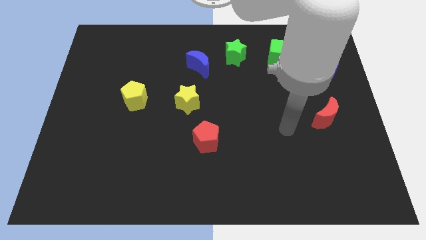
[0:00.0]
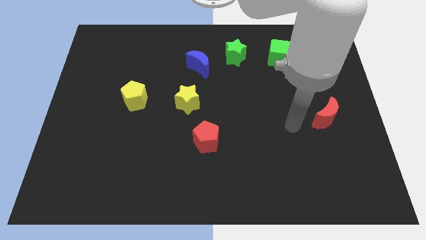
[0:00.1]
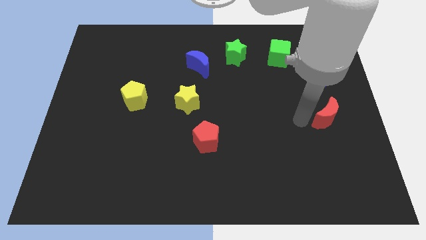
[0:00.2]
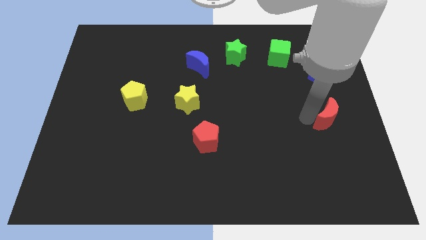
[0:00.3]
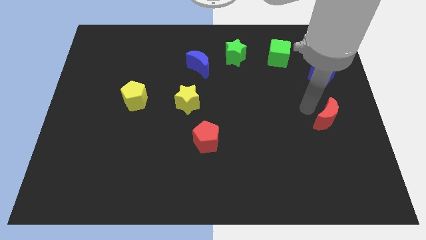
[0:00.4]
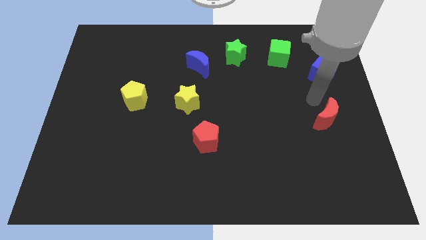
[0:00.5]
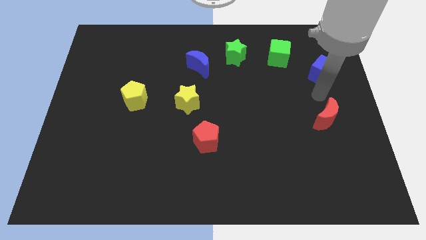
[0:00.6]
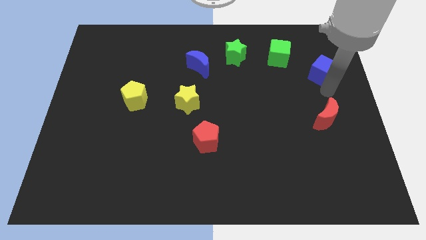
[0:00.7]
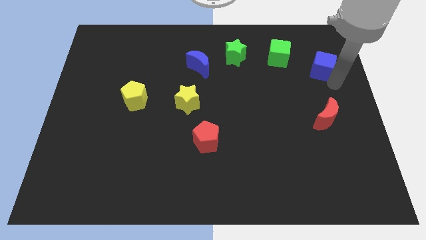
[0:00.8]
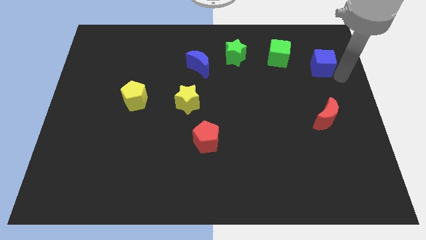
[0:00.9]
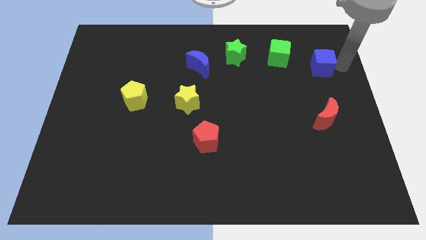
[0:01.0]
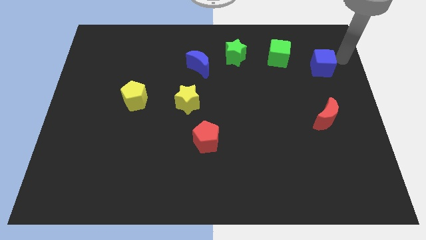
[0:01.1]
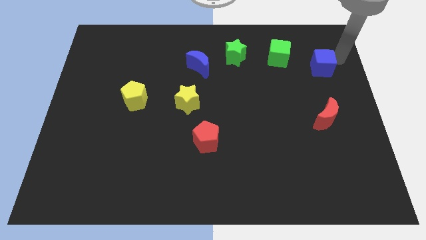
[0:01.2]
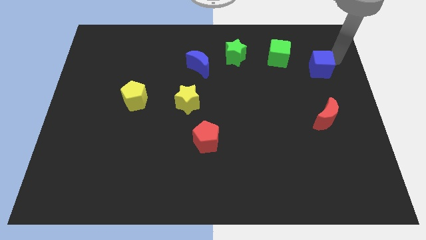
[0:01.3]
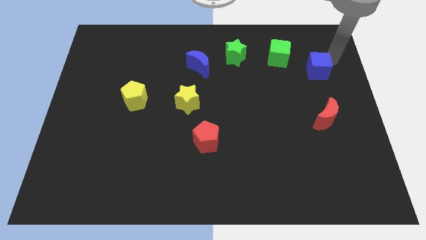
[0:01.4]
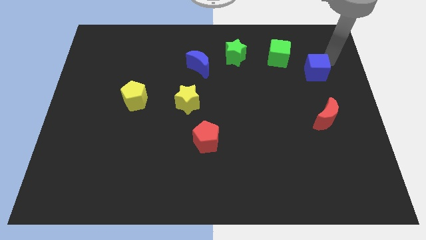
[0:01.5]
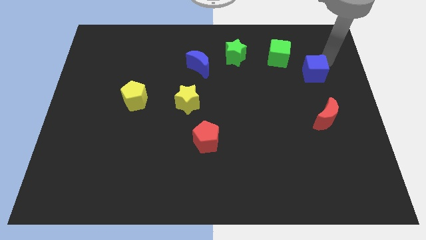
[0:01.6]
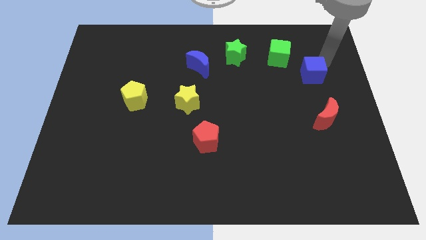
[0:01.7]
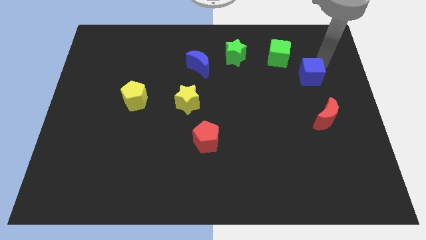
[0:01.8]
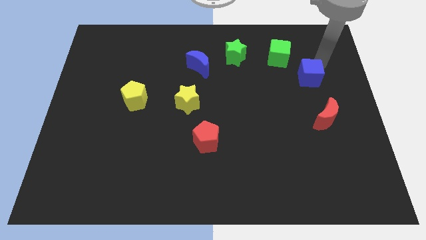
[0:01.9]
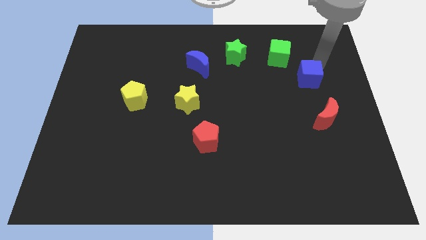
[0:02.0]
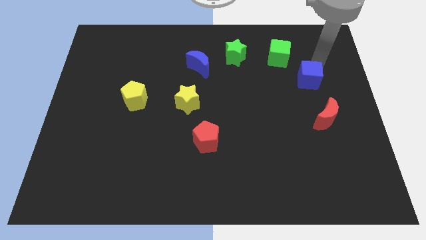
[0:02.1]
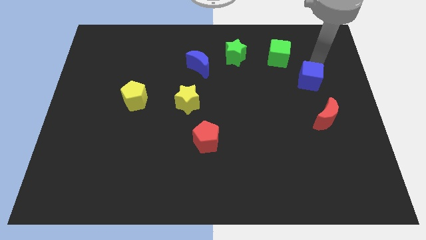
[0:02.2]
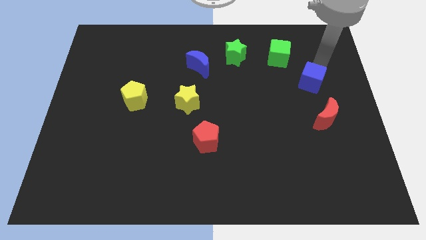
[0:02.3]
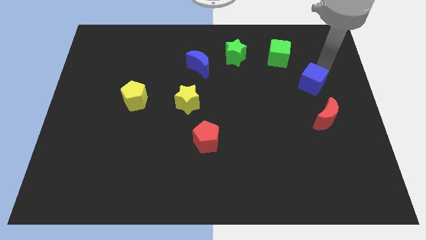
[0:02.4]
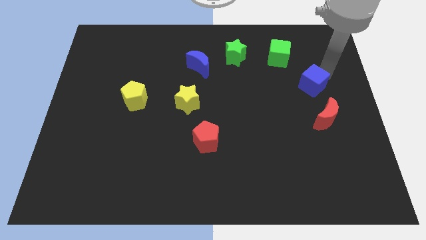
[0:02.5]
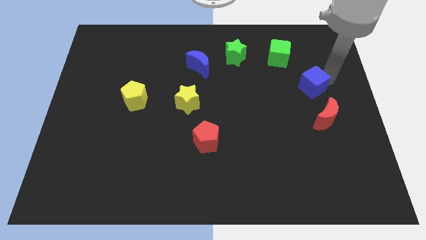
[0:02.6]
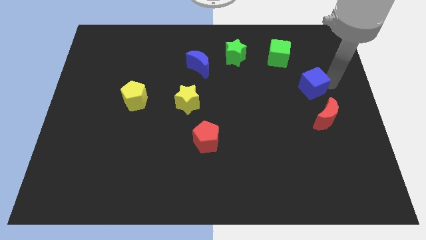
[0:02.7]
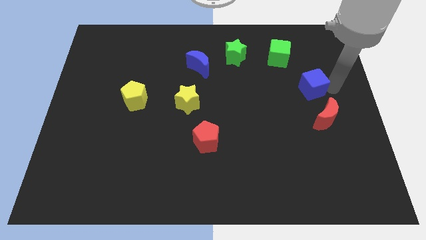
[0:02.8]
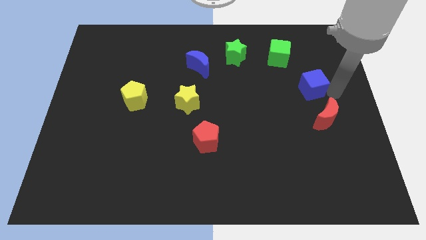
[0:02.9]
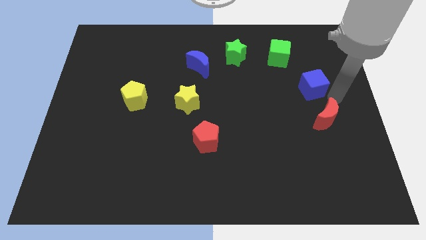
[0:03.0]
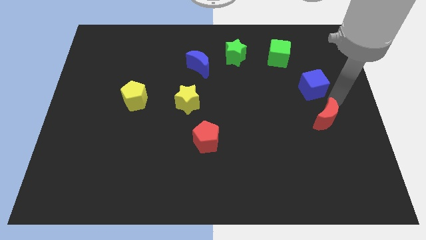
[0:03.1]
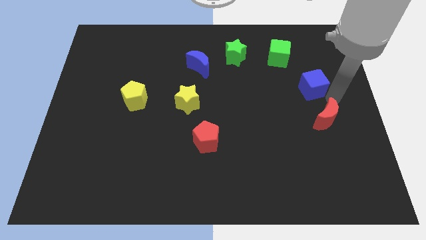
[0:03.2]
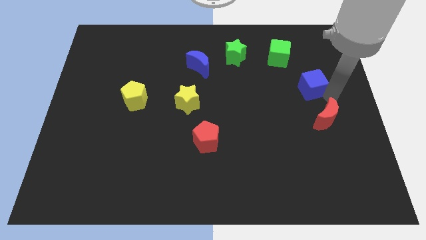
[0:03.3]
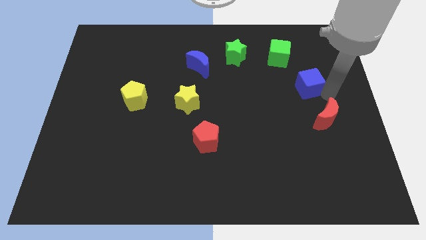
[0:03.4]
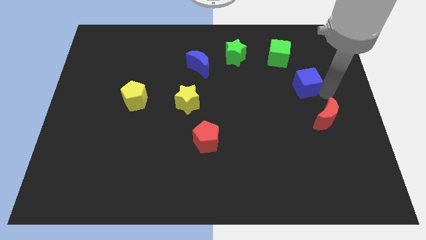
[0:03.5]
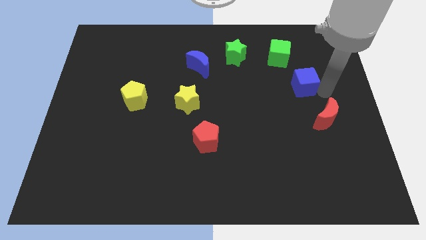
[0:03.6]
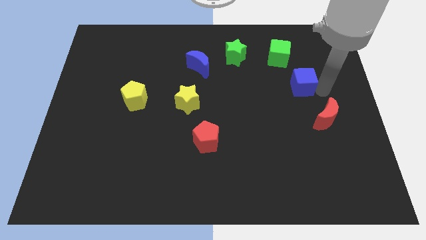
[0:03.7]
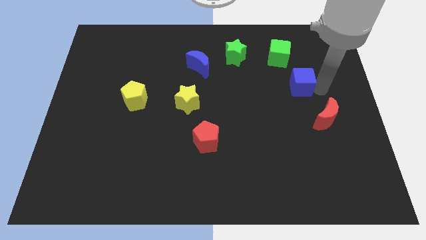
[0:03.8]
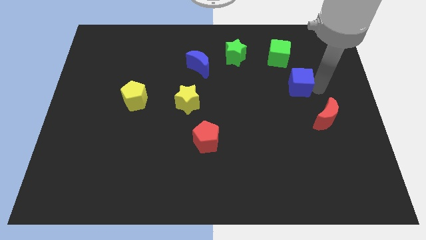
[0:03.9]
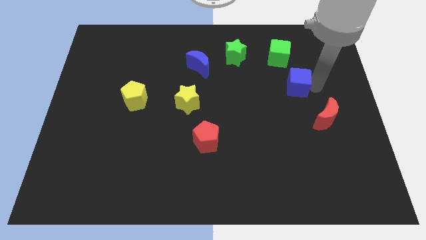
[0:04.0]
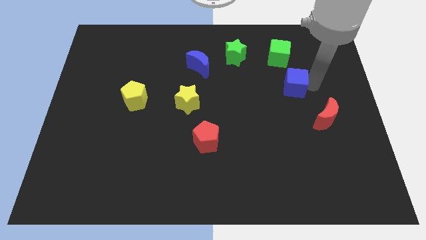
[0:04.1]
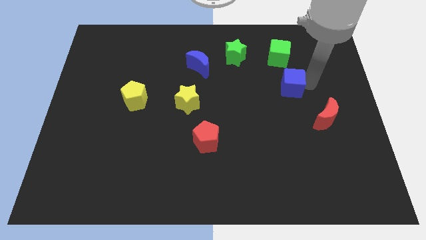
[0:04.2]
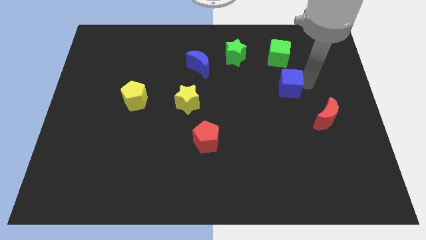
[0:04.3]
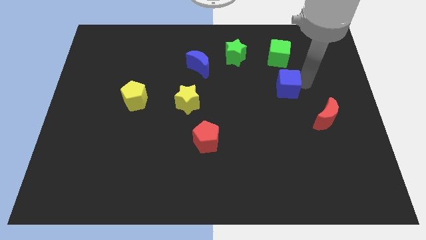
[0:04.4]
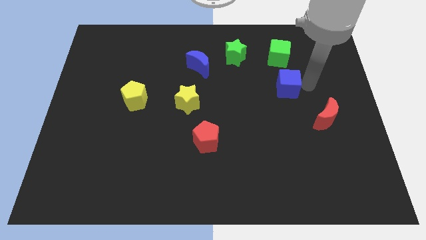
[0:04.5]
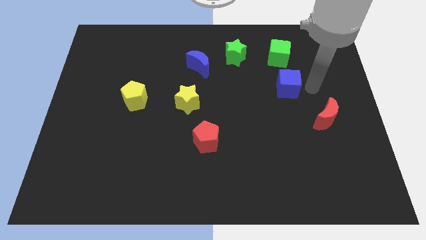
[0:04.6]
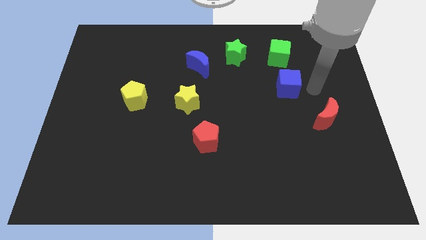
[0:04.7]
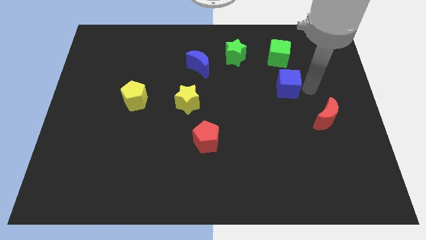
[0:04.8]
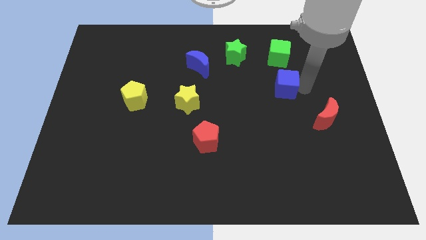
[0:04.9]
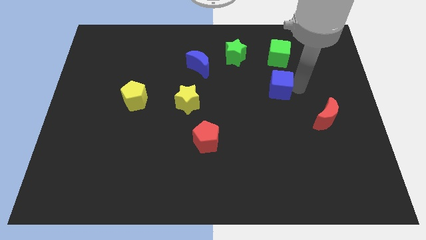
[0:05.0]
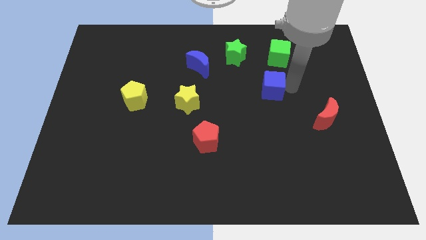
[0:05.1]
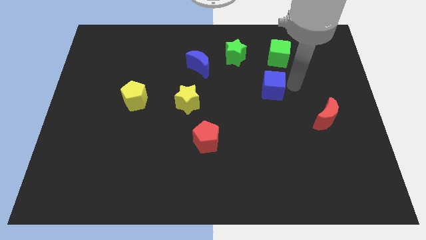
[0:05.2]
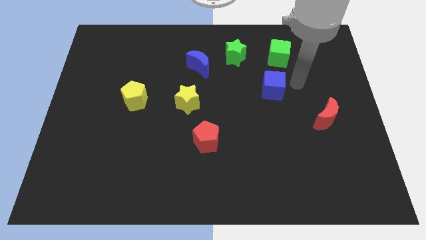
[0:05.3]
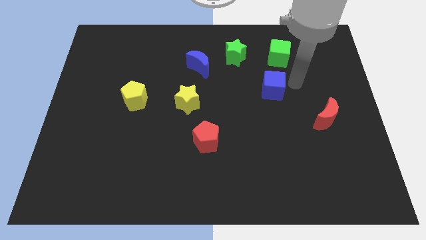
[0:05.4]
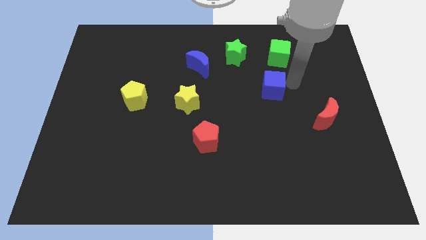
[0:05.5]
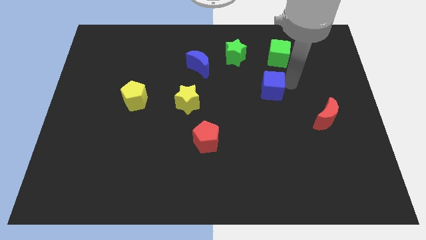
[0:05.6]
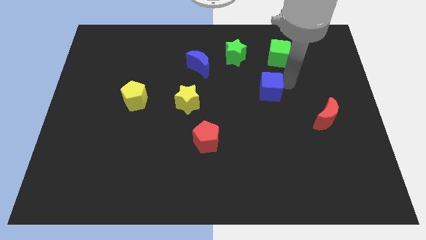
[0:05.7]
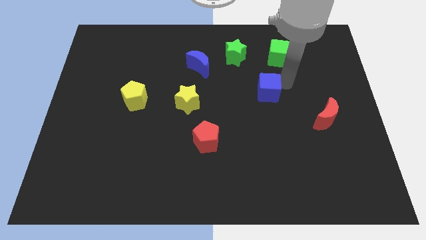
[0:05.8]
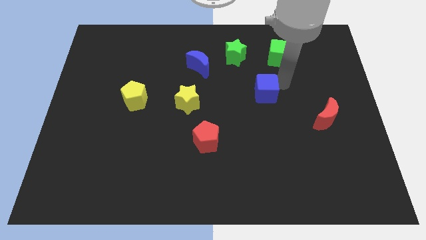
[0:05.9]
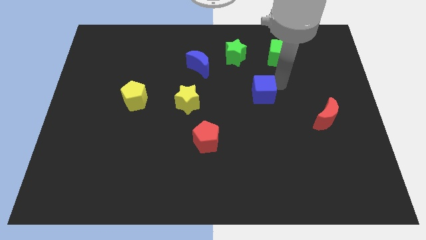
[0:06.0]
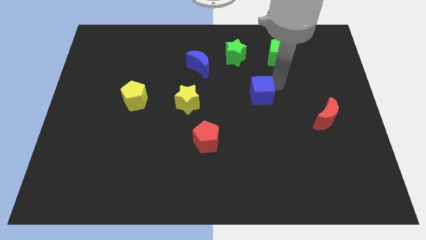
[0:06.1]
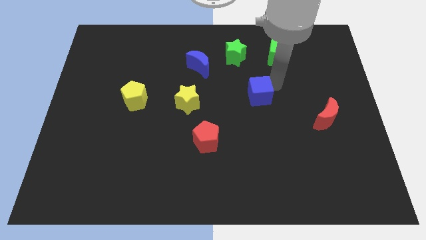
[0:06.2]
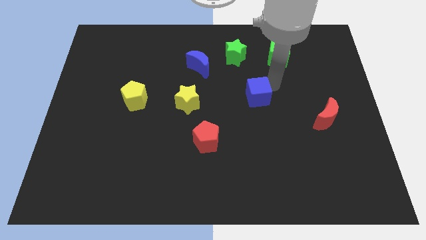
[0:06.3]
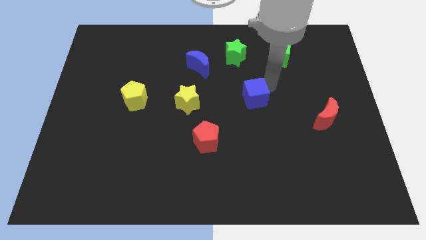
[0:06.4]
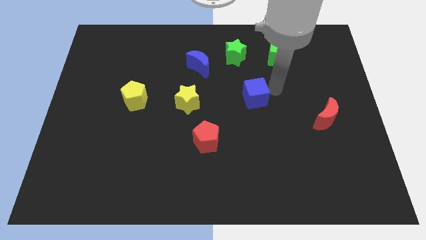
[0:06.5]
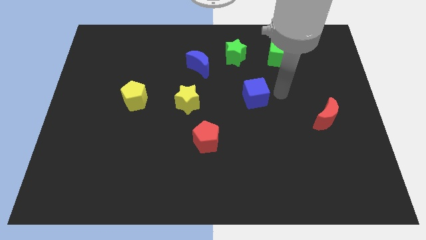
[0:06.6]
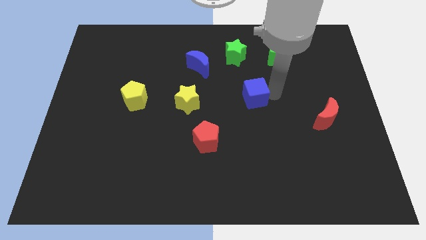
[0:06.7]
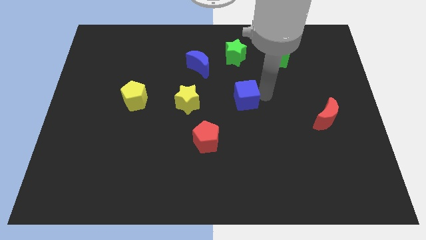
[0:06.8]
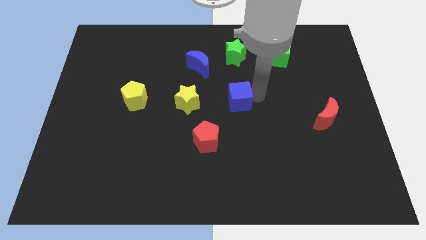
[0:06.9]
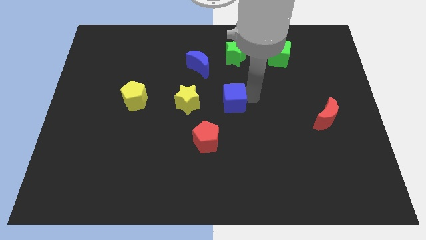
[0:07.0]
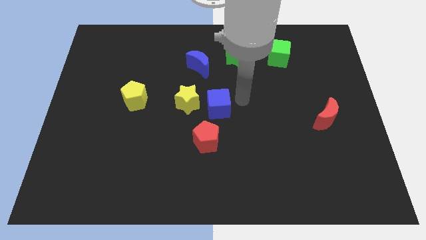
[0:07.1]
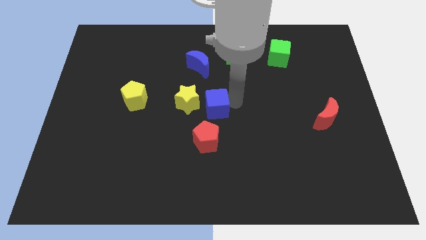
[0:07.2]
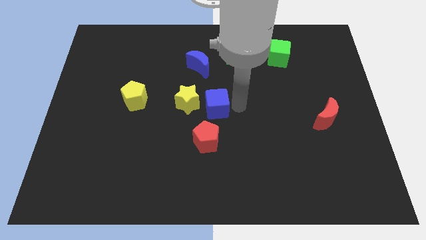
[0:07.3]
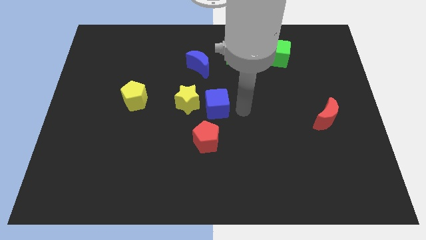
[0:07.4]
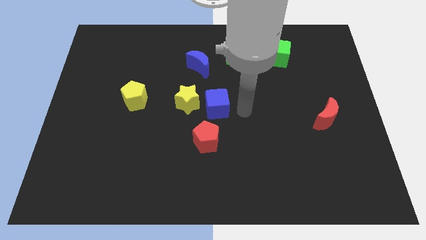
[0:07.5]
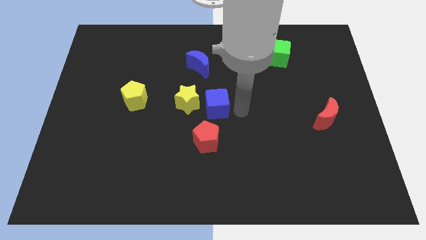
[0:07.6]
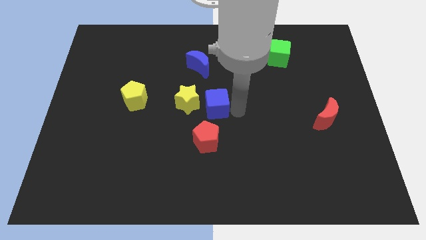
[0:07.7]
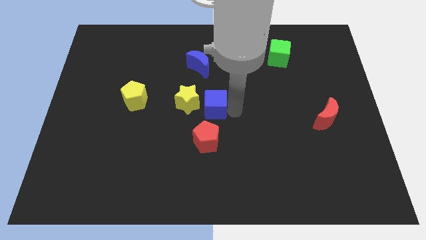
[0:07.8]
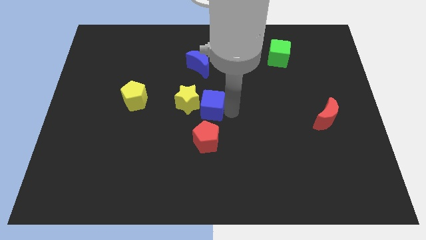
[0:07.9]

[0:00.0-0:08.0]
move the blue cube towards the yellow star
